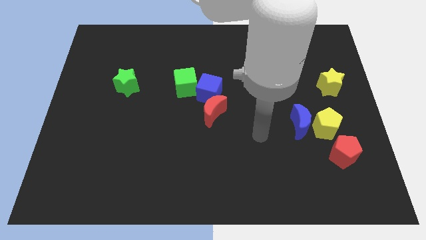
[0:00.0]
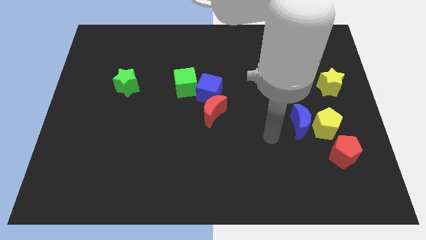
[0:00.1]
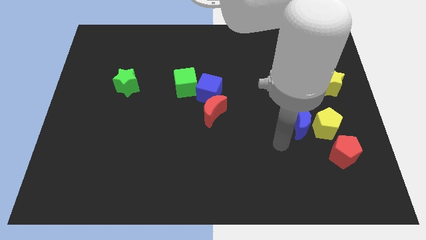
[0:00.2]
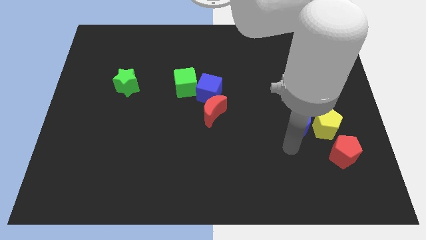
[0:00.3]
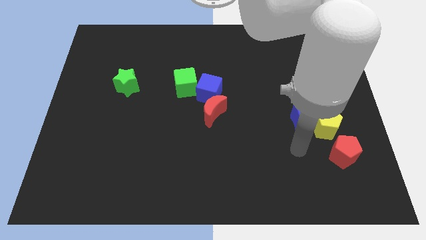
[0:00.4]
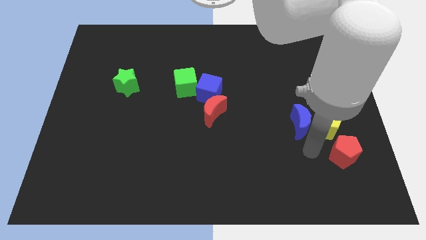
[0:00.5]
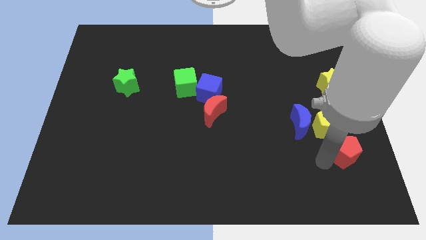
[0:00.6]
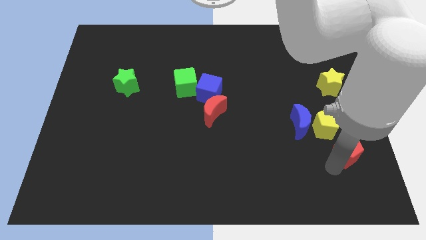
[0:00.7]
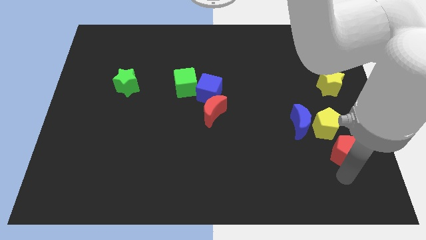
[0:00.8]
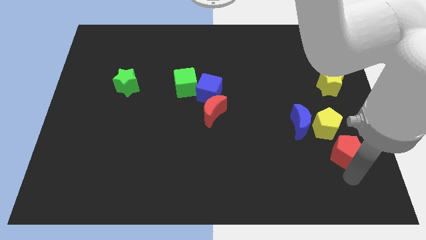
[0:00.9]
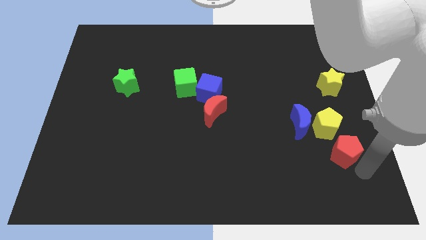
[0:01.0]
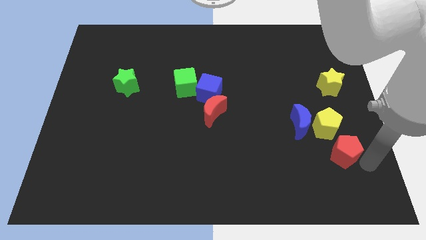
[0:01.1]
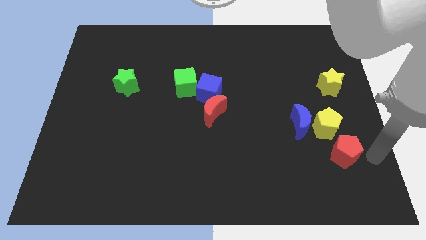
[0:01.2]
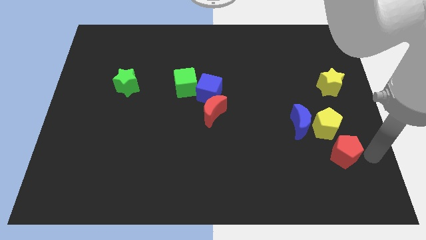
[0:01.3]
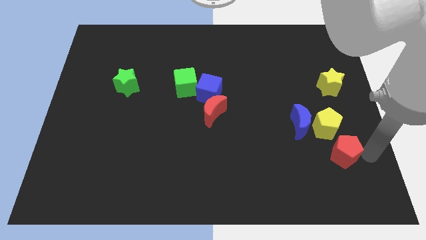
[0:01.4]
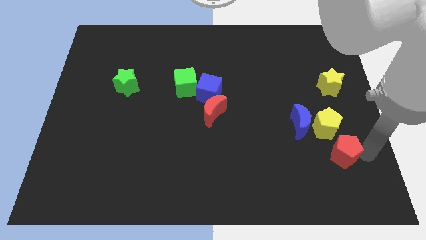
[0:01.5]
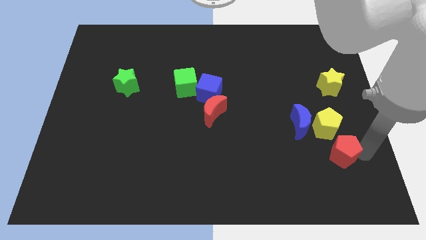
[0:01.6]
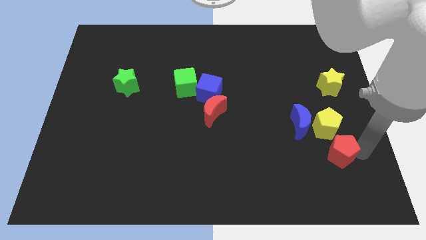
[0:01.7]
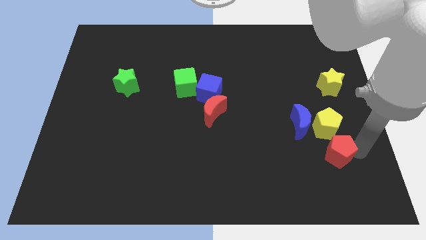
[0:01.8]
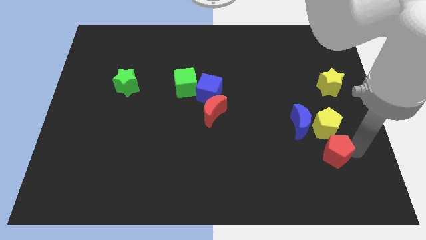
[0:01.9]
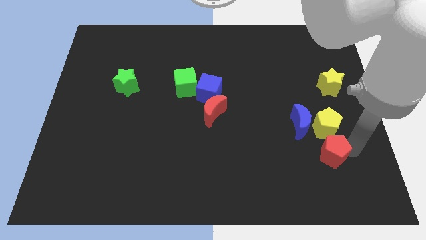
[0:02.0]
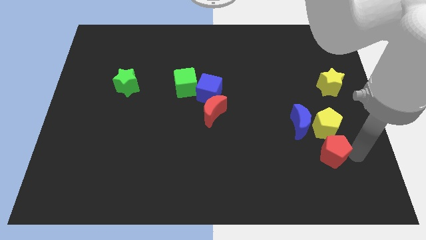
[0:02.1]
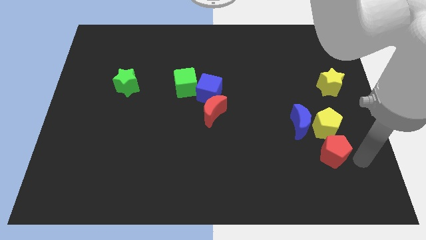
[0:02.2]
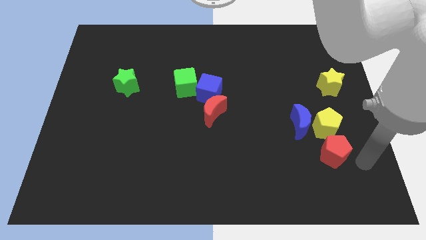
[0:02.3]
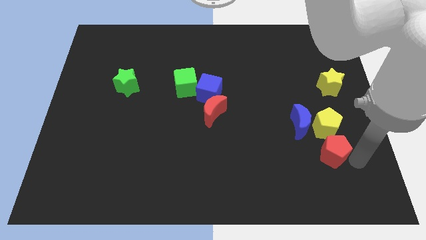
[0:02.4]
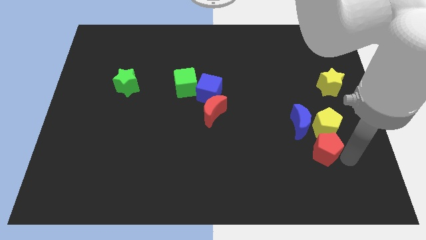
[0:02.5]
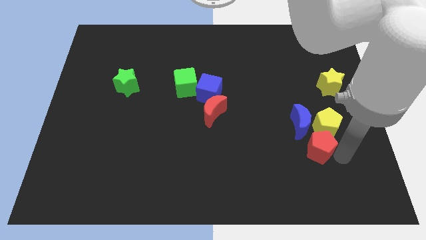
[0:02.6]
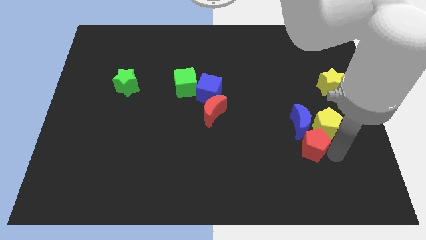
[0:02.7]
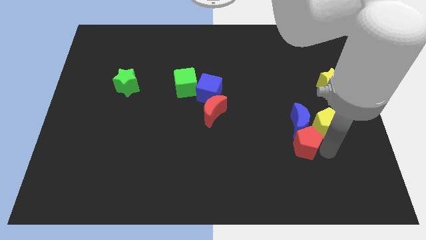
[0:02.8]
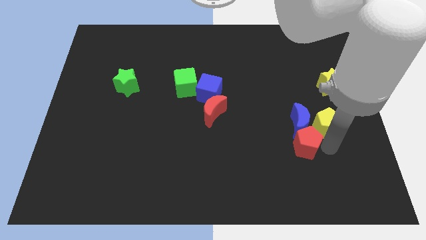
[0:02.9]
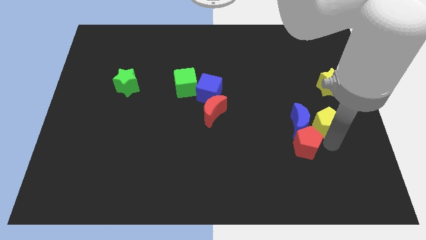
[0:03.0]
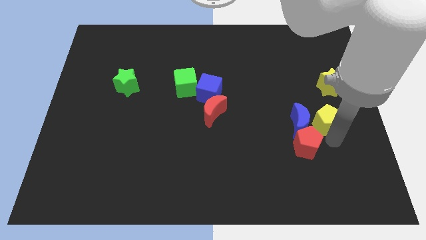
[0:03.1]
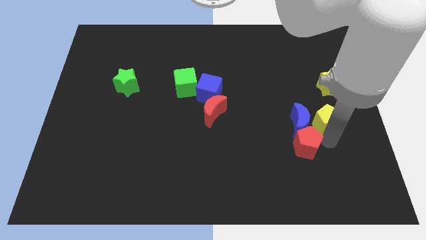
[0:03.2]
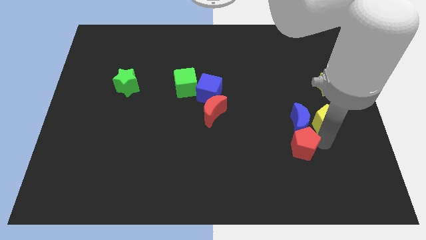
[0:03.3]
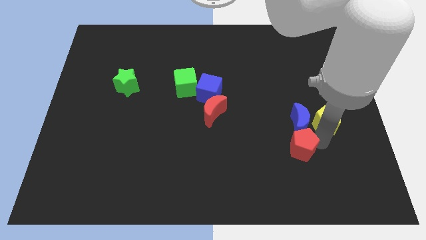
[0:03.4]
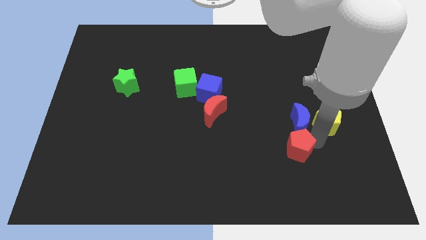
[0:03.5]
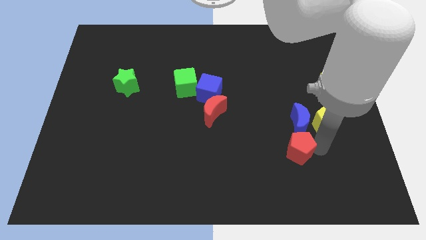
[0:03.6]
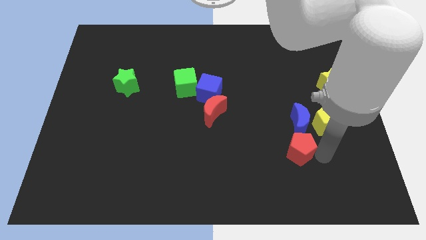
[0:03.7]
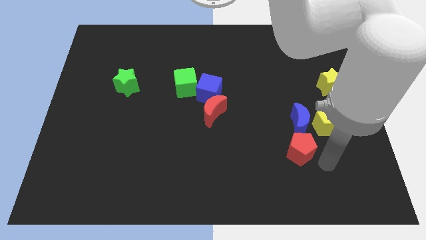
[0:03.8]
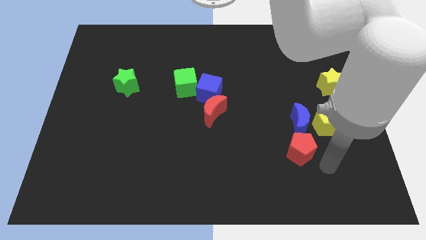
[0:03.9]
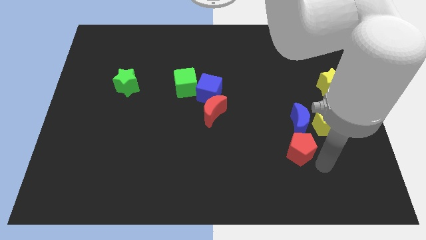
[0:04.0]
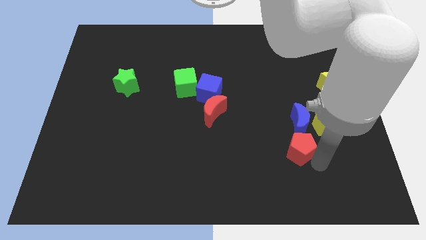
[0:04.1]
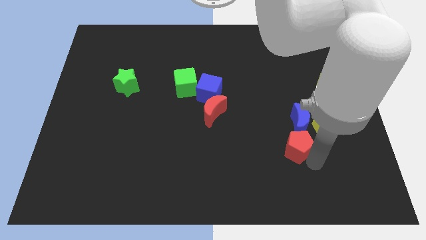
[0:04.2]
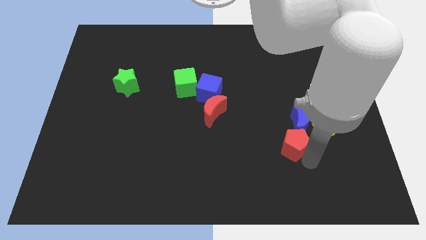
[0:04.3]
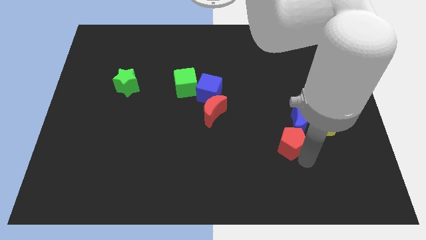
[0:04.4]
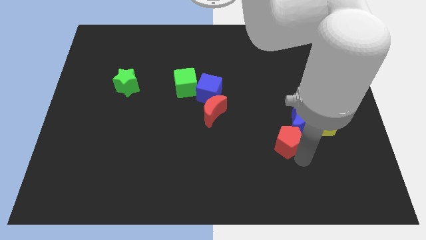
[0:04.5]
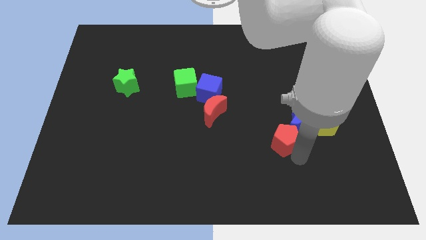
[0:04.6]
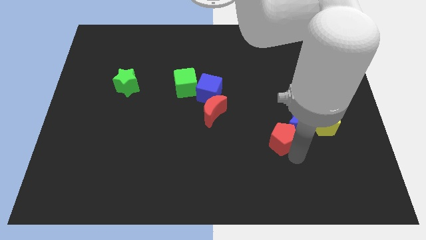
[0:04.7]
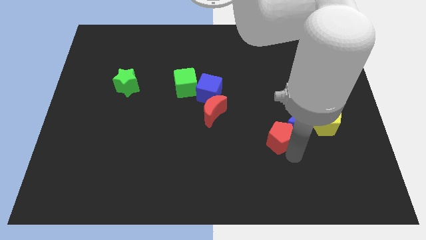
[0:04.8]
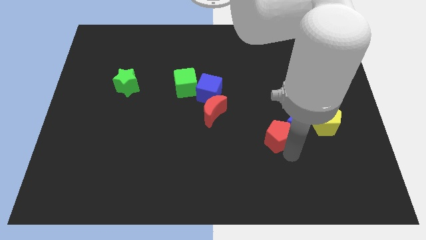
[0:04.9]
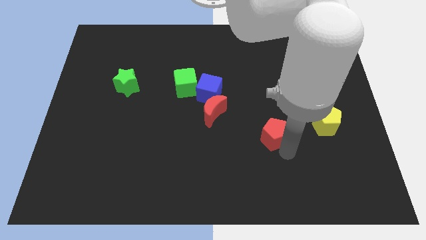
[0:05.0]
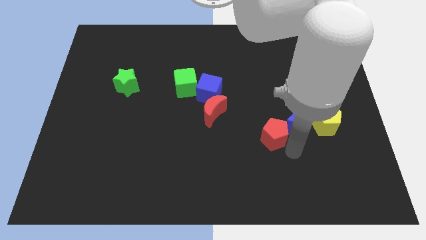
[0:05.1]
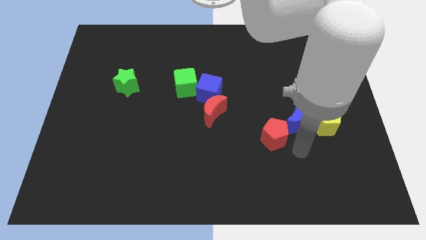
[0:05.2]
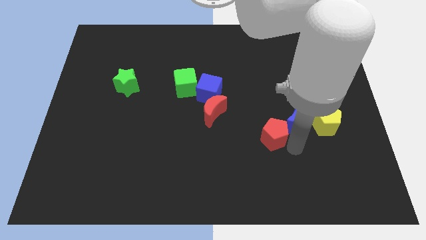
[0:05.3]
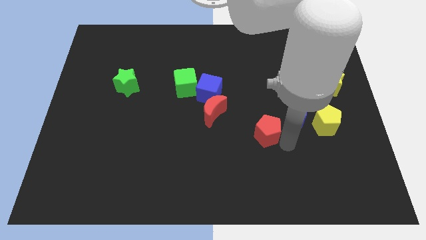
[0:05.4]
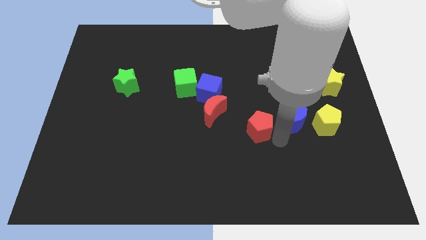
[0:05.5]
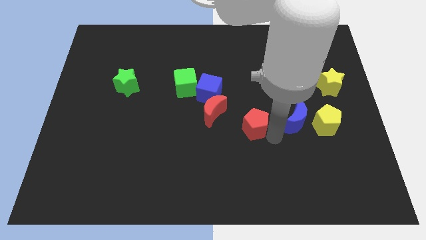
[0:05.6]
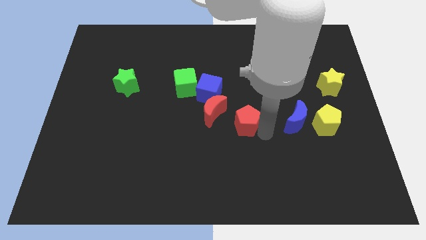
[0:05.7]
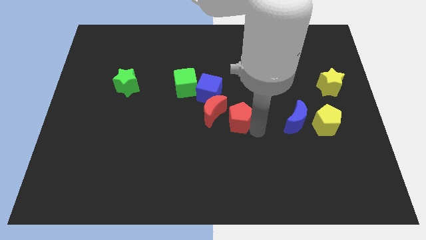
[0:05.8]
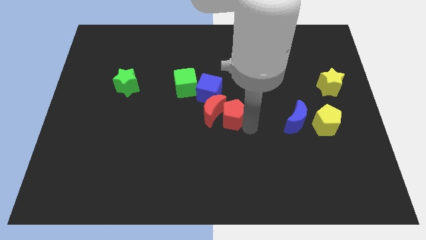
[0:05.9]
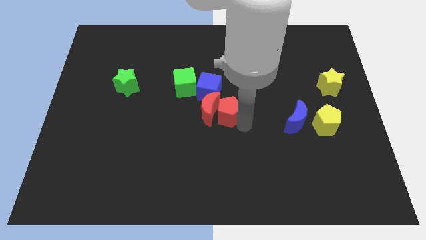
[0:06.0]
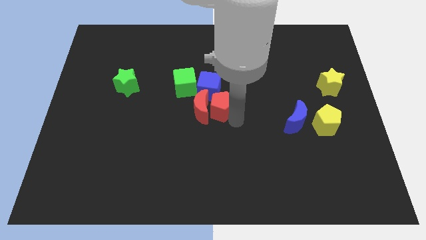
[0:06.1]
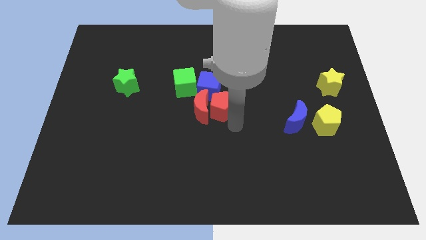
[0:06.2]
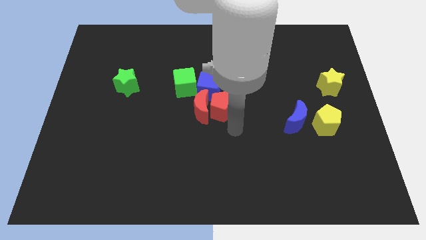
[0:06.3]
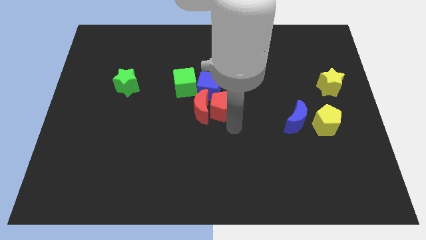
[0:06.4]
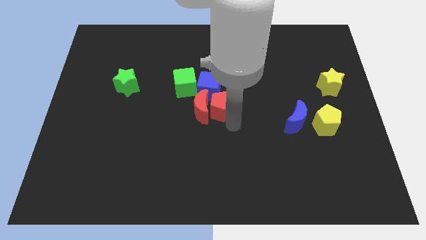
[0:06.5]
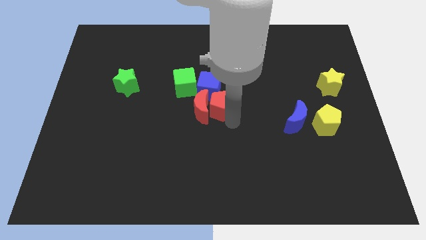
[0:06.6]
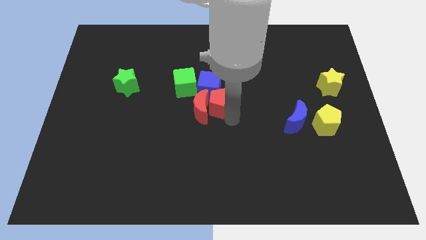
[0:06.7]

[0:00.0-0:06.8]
put the red pentagon to the blue cube
